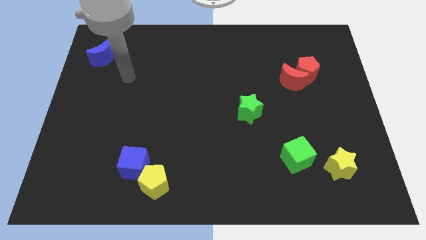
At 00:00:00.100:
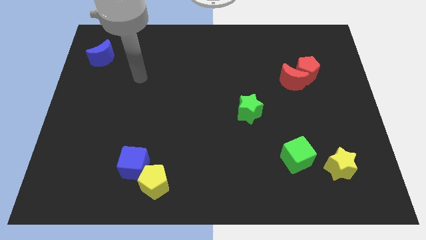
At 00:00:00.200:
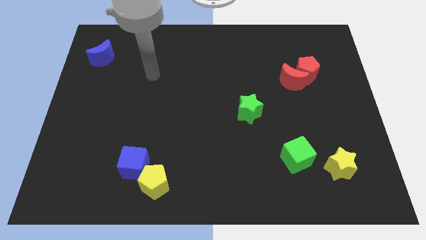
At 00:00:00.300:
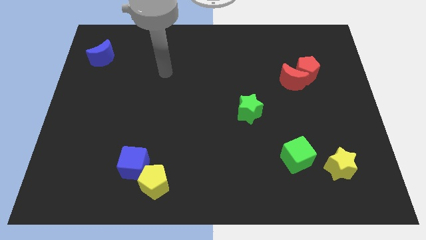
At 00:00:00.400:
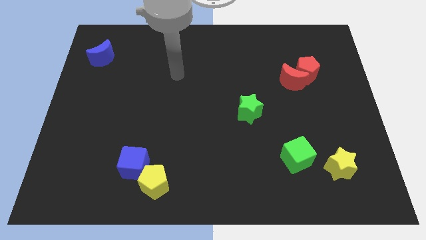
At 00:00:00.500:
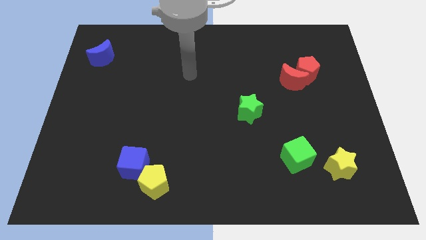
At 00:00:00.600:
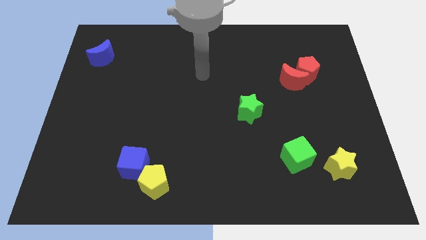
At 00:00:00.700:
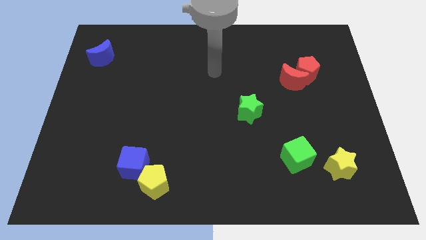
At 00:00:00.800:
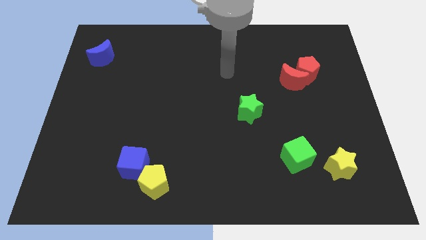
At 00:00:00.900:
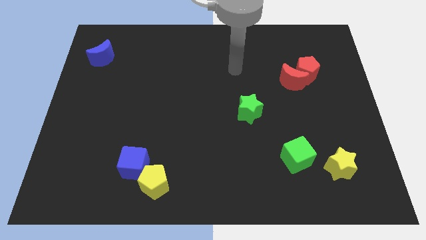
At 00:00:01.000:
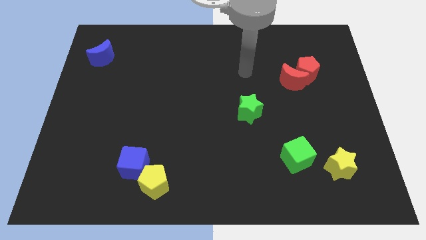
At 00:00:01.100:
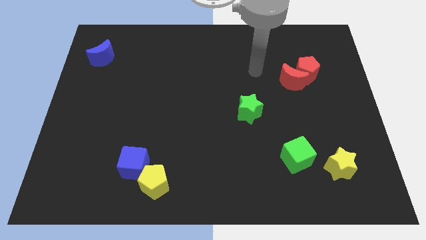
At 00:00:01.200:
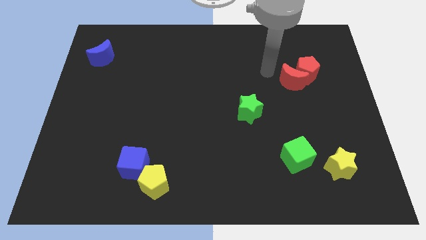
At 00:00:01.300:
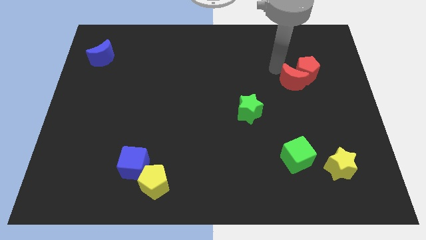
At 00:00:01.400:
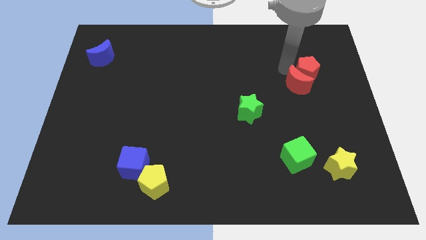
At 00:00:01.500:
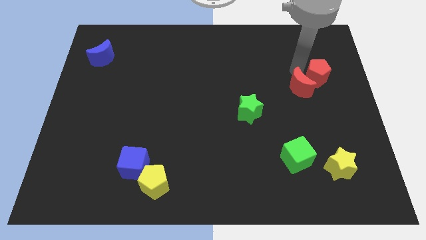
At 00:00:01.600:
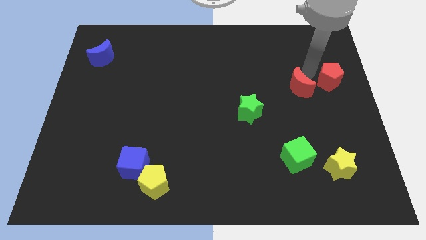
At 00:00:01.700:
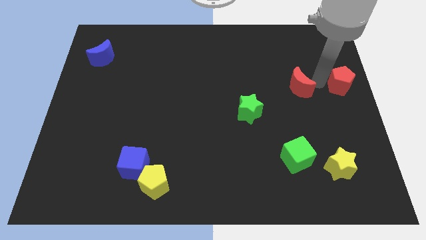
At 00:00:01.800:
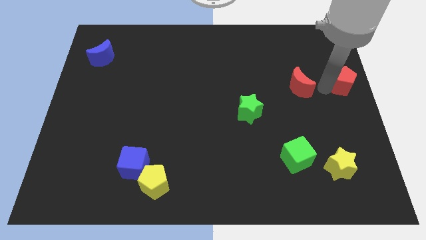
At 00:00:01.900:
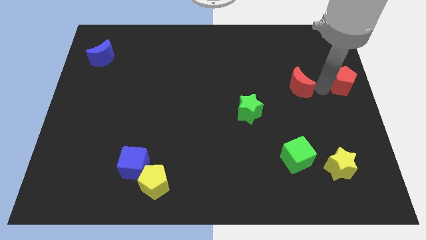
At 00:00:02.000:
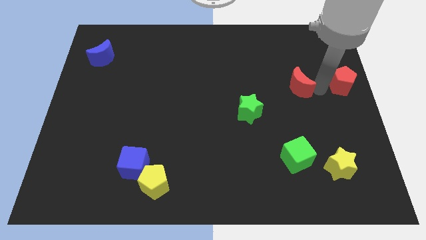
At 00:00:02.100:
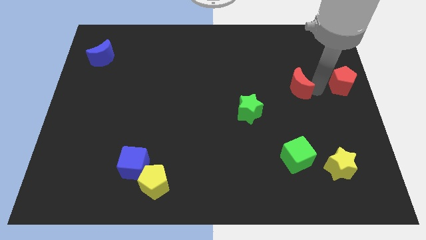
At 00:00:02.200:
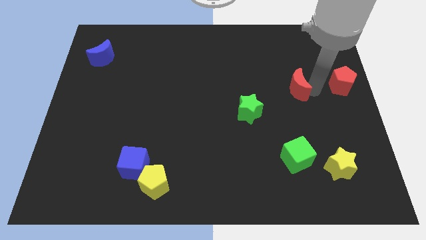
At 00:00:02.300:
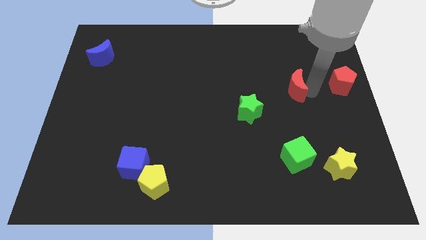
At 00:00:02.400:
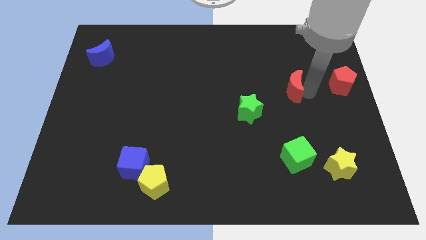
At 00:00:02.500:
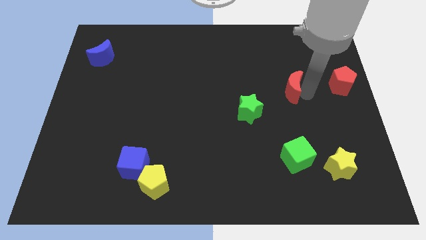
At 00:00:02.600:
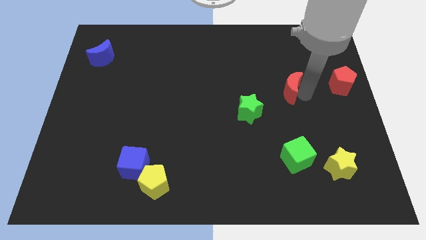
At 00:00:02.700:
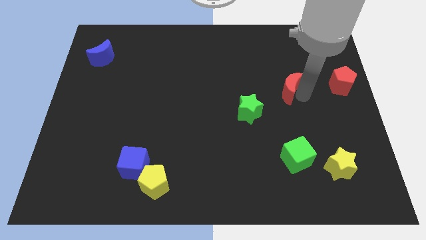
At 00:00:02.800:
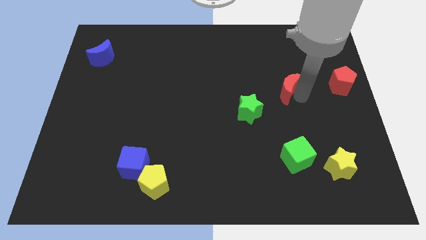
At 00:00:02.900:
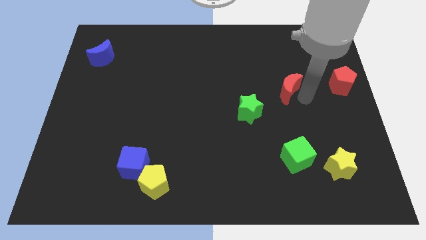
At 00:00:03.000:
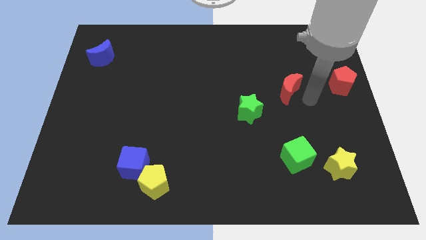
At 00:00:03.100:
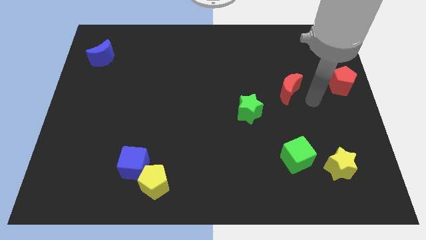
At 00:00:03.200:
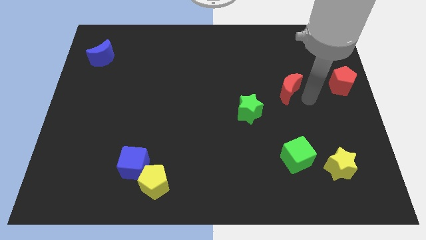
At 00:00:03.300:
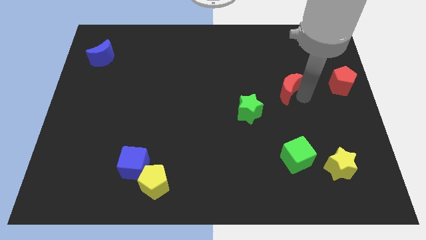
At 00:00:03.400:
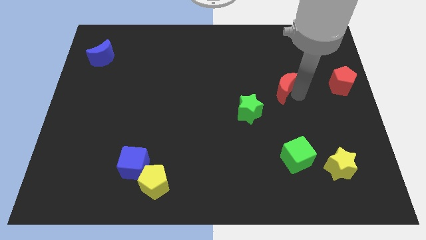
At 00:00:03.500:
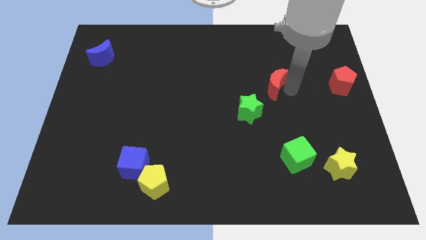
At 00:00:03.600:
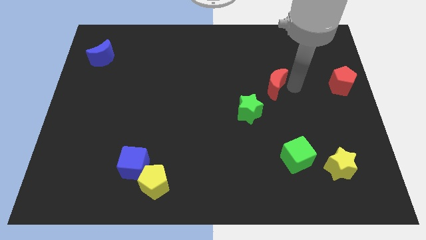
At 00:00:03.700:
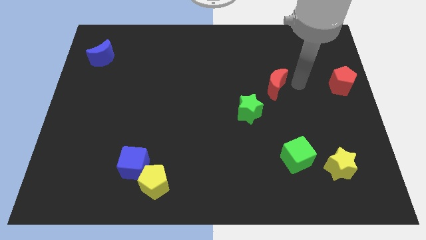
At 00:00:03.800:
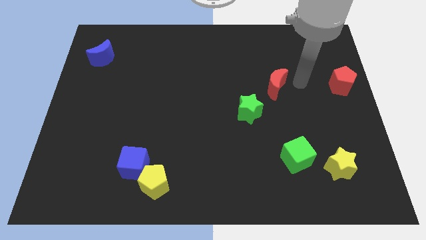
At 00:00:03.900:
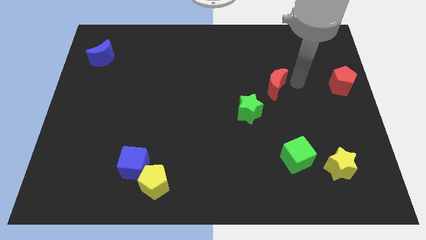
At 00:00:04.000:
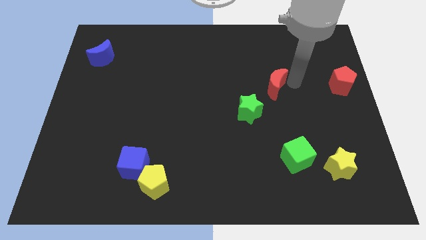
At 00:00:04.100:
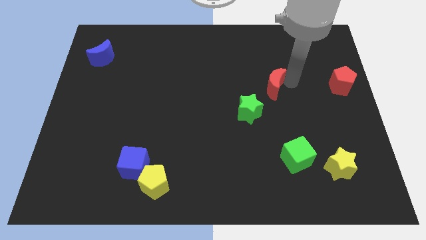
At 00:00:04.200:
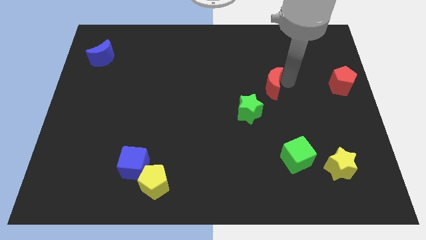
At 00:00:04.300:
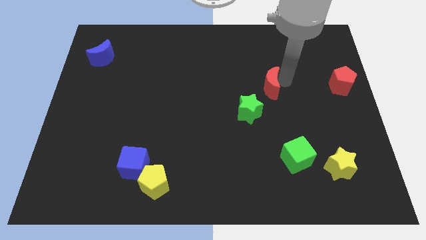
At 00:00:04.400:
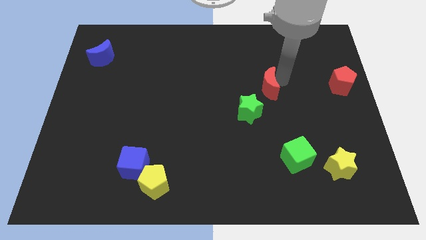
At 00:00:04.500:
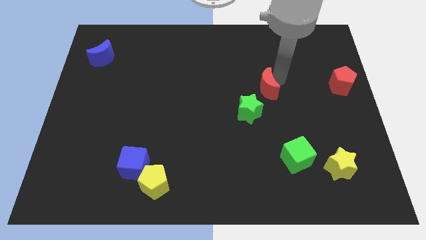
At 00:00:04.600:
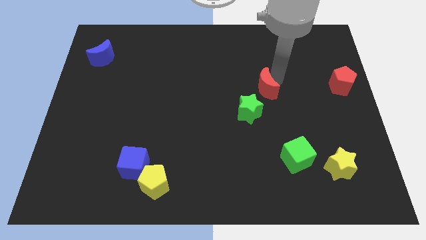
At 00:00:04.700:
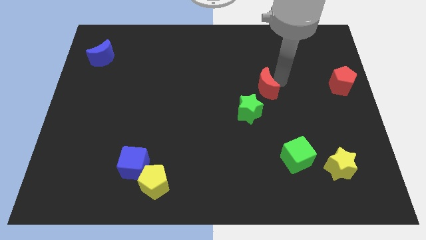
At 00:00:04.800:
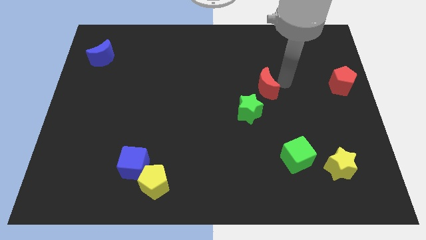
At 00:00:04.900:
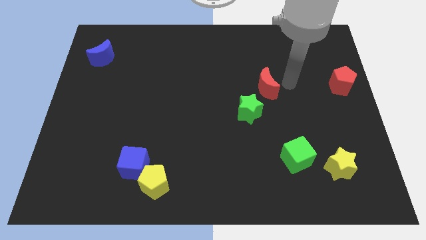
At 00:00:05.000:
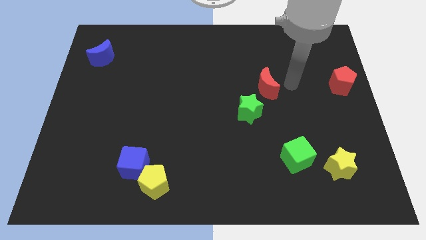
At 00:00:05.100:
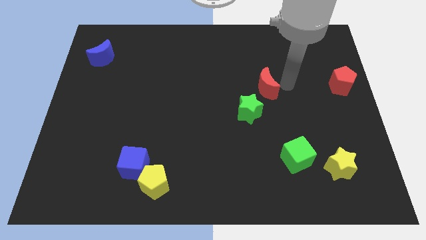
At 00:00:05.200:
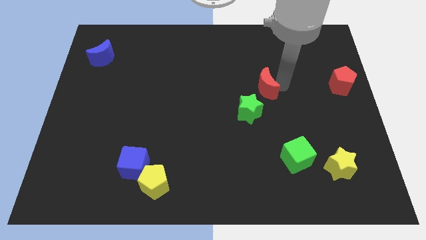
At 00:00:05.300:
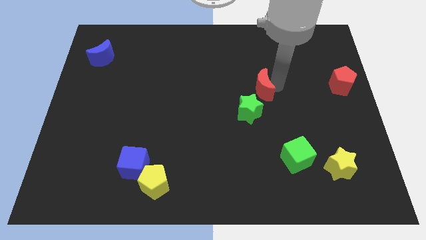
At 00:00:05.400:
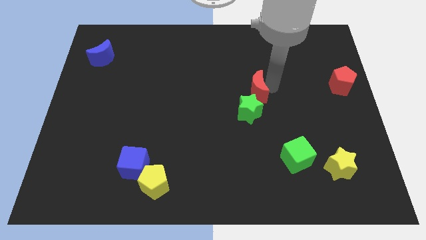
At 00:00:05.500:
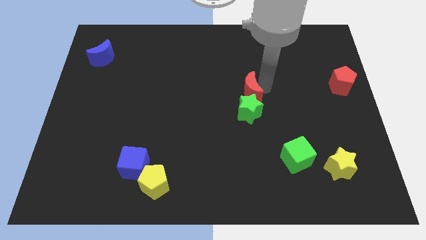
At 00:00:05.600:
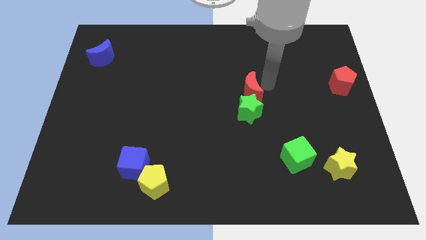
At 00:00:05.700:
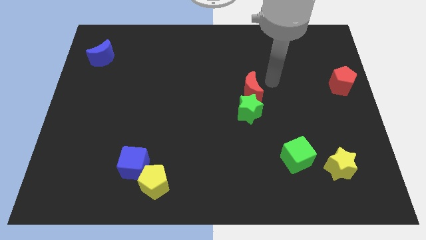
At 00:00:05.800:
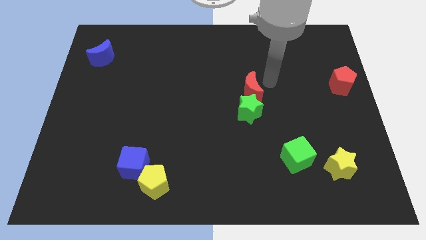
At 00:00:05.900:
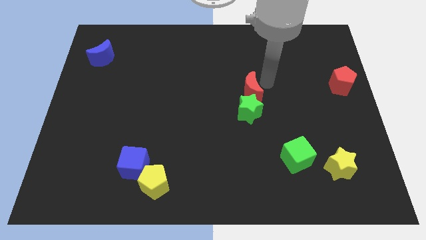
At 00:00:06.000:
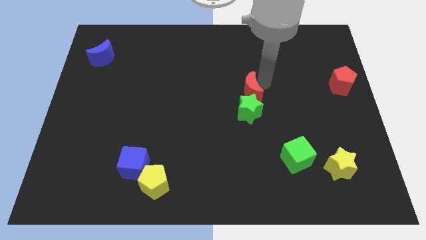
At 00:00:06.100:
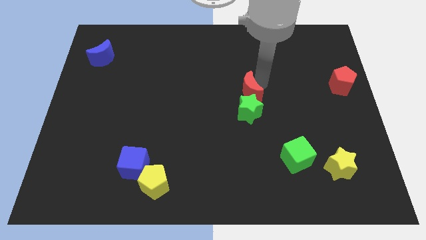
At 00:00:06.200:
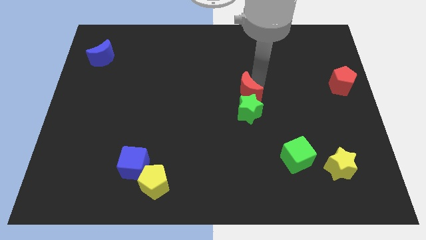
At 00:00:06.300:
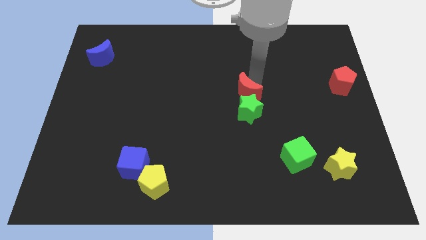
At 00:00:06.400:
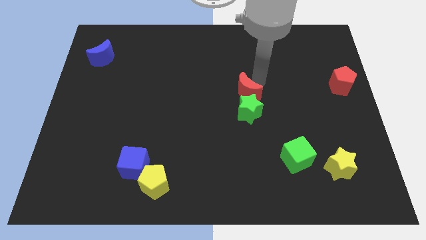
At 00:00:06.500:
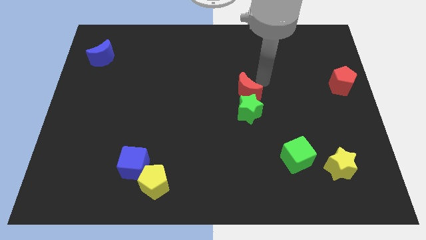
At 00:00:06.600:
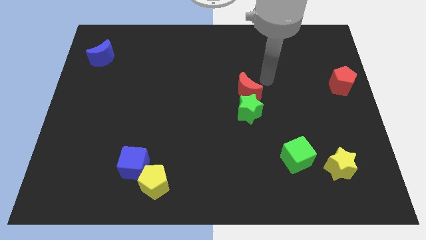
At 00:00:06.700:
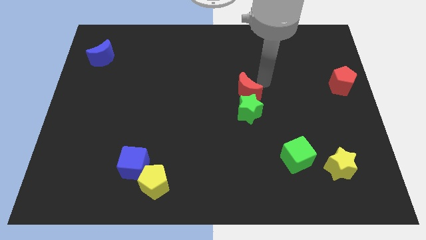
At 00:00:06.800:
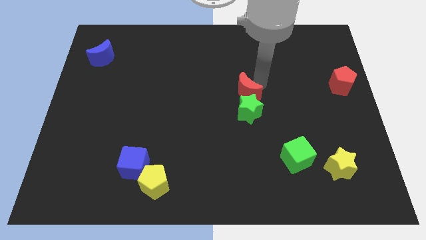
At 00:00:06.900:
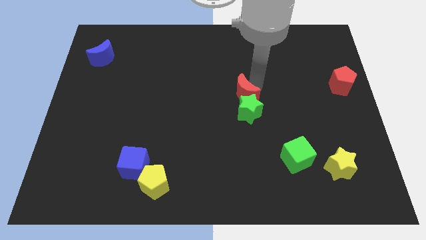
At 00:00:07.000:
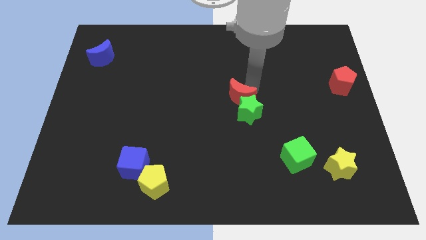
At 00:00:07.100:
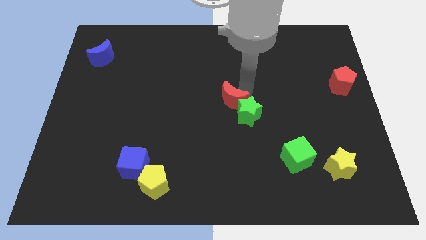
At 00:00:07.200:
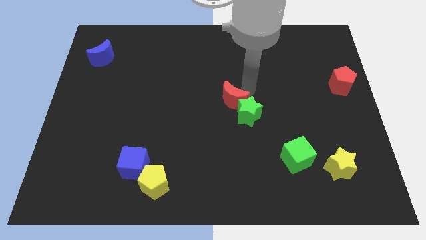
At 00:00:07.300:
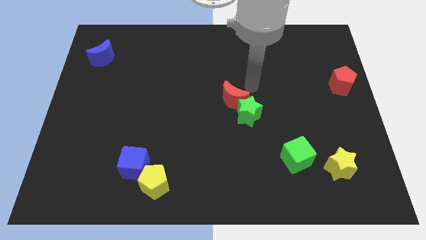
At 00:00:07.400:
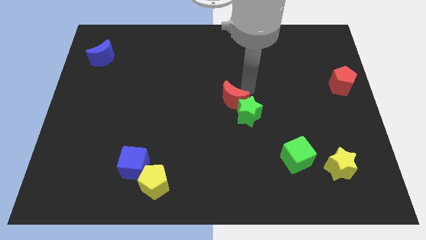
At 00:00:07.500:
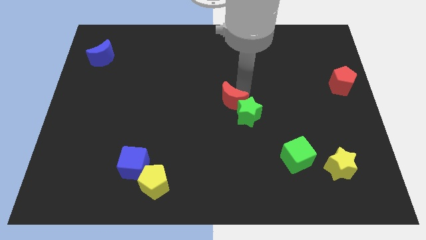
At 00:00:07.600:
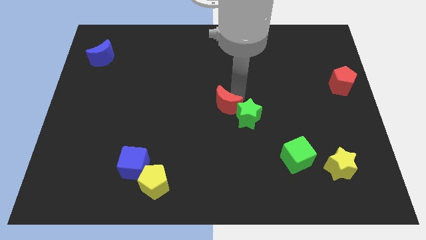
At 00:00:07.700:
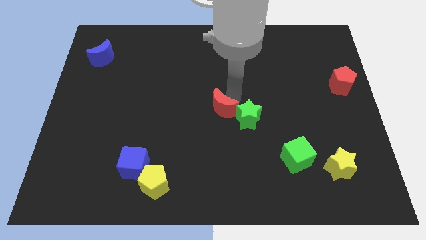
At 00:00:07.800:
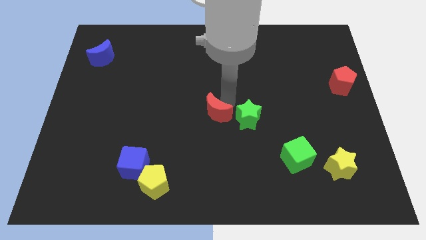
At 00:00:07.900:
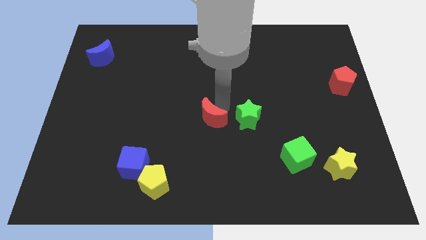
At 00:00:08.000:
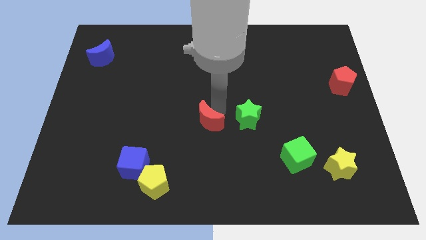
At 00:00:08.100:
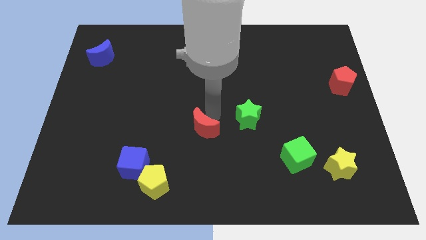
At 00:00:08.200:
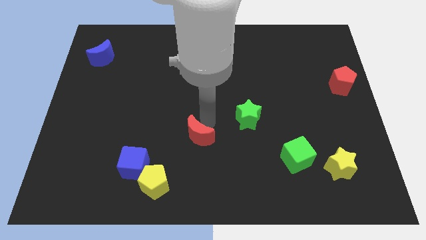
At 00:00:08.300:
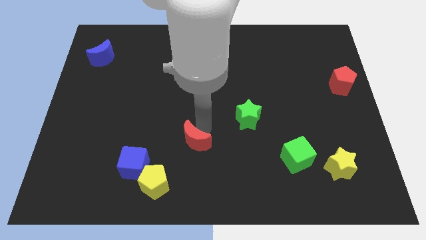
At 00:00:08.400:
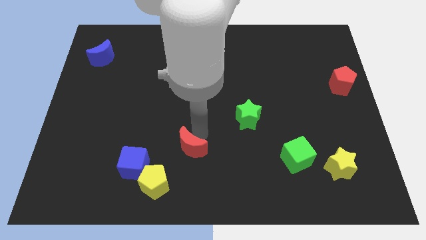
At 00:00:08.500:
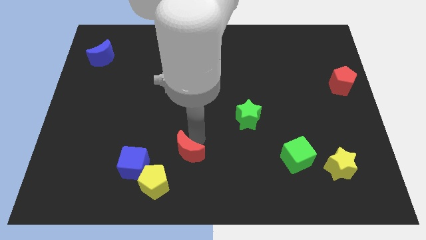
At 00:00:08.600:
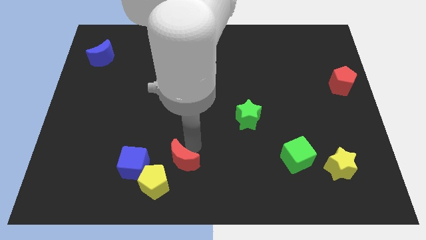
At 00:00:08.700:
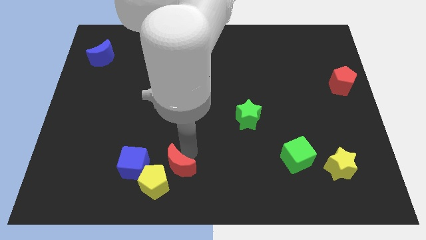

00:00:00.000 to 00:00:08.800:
slide the red moon towards the yellow pentagon
